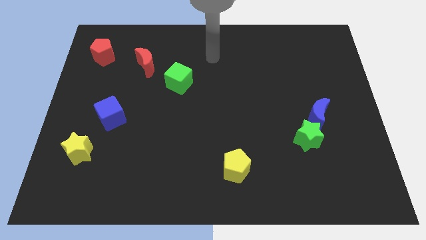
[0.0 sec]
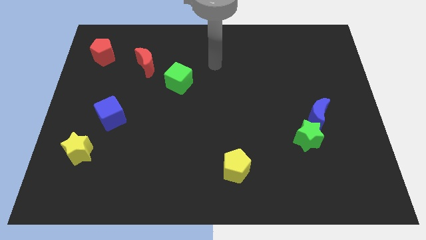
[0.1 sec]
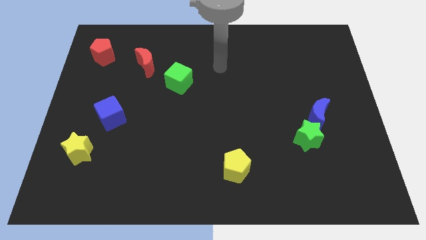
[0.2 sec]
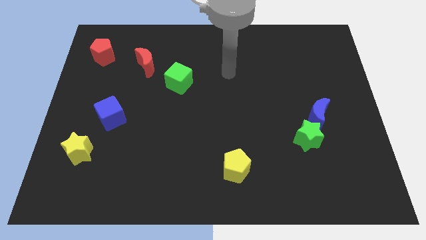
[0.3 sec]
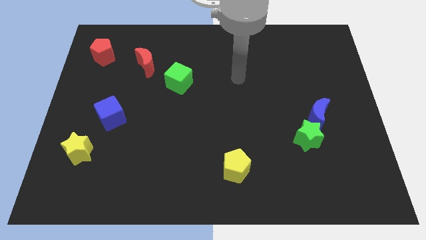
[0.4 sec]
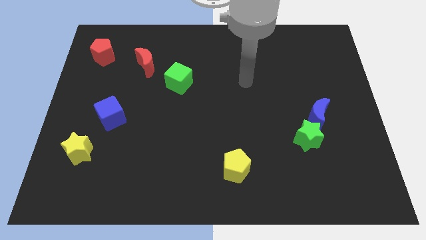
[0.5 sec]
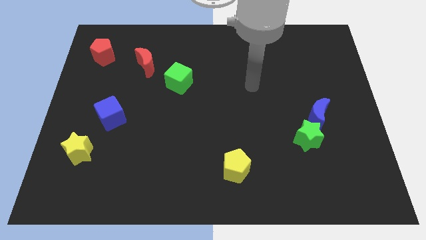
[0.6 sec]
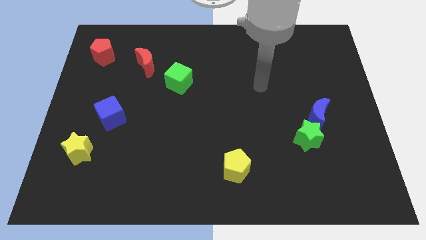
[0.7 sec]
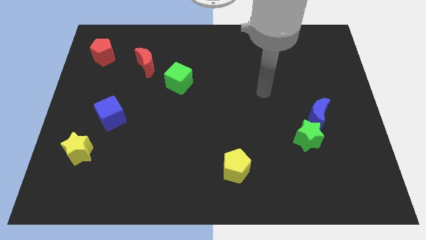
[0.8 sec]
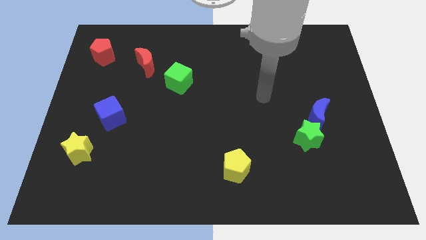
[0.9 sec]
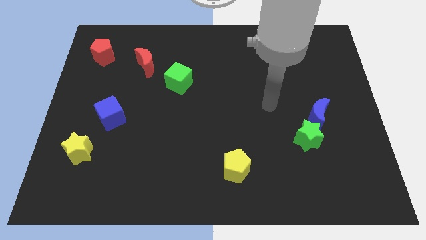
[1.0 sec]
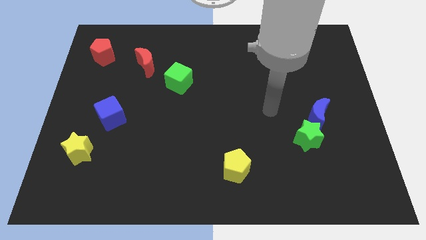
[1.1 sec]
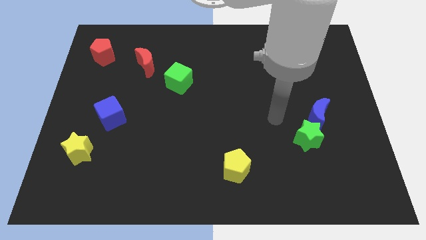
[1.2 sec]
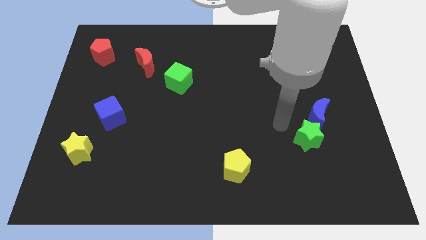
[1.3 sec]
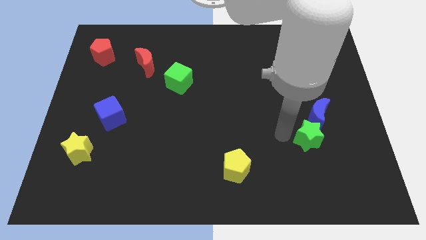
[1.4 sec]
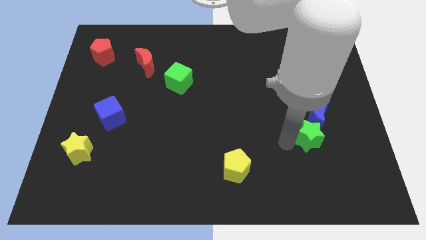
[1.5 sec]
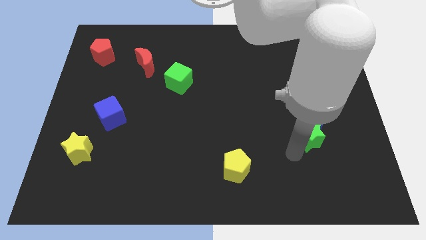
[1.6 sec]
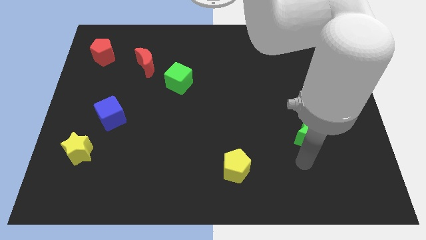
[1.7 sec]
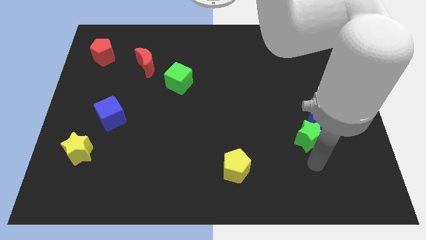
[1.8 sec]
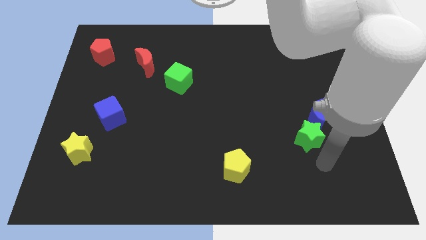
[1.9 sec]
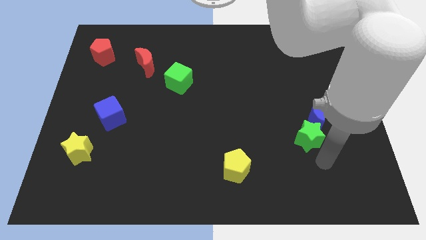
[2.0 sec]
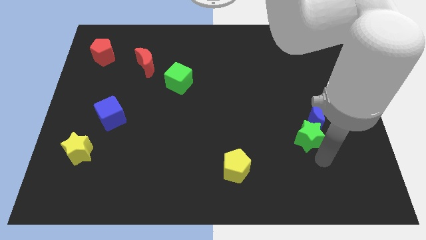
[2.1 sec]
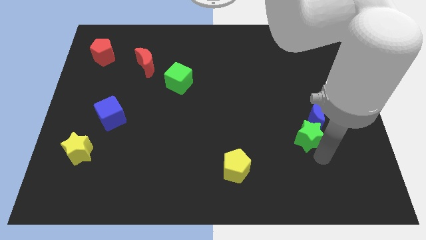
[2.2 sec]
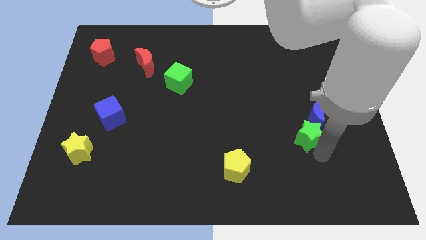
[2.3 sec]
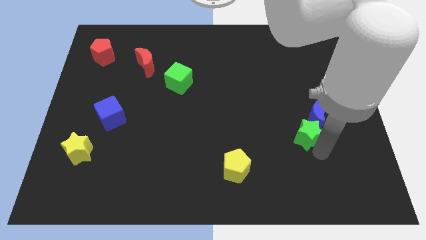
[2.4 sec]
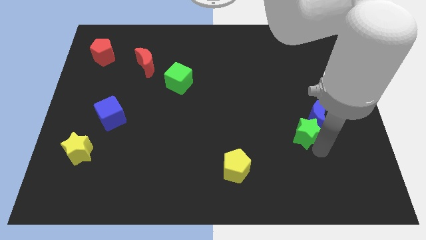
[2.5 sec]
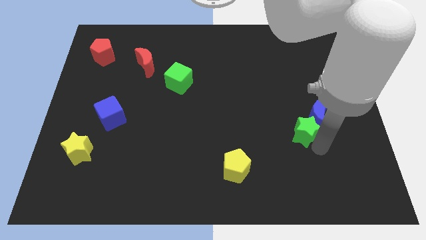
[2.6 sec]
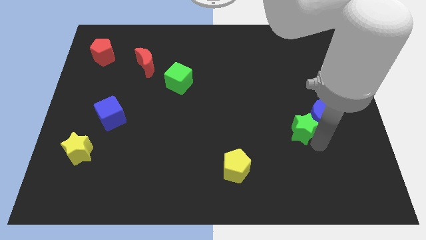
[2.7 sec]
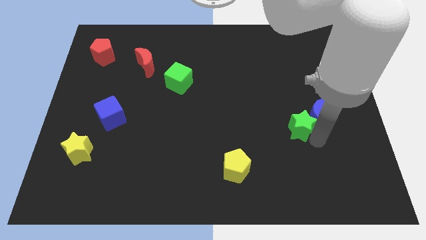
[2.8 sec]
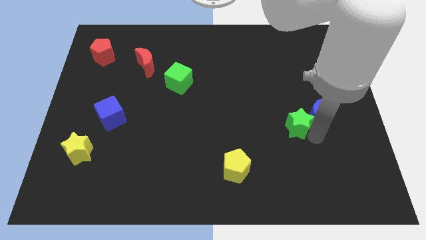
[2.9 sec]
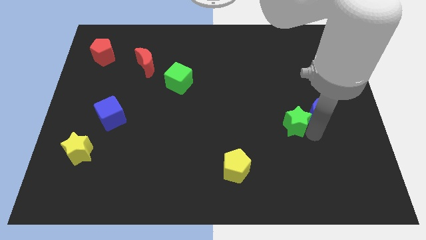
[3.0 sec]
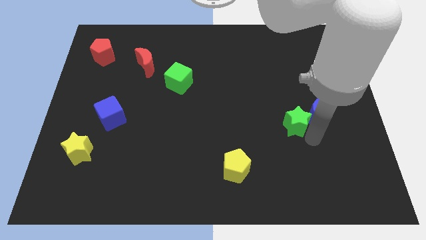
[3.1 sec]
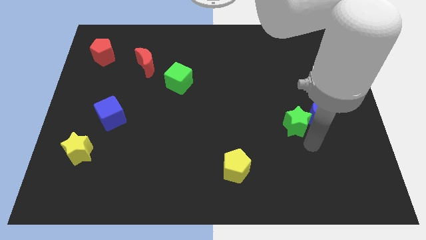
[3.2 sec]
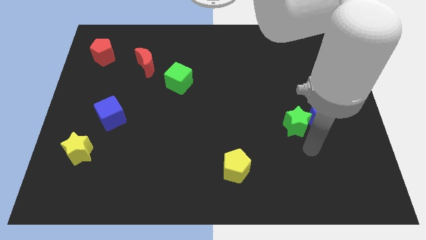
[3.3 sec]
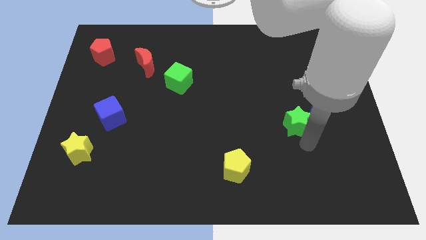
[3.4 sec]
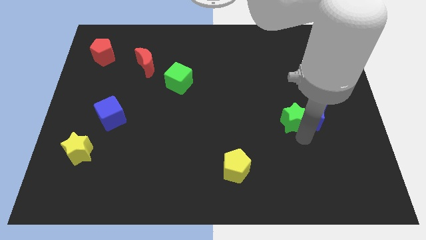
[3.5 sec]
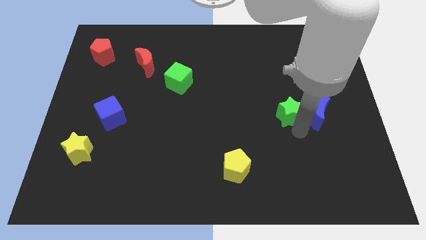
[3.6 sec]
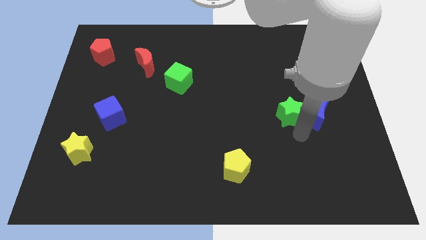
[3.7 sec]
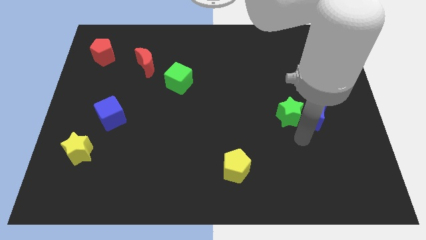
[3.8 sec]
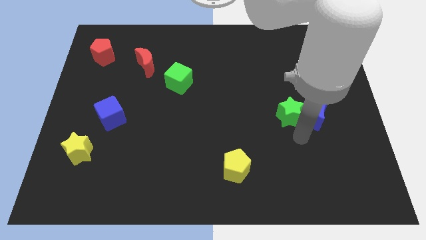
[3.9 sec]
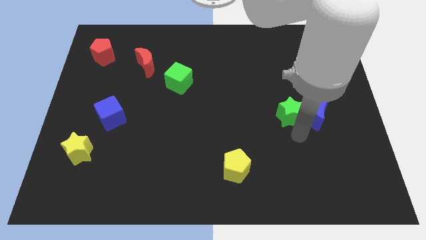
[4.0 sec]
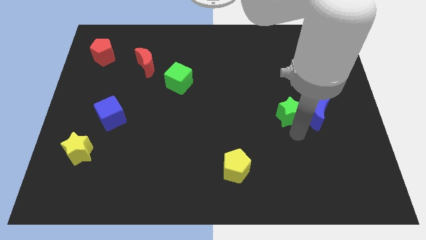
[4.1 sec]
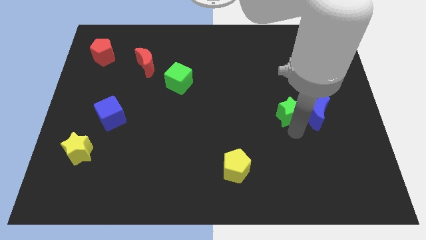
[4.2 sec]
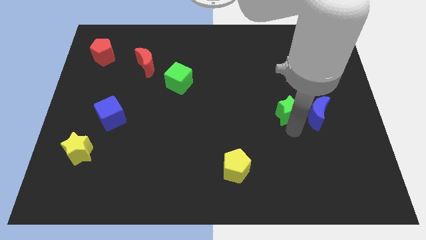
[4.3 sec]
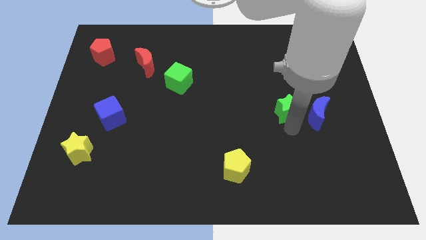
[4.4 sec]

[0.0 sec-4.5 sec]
push the green star a bit upwards

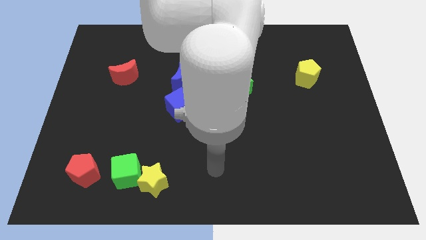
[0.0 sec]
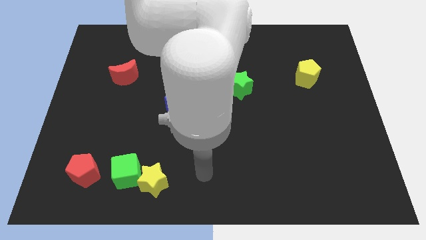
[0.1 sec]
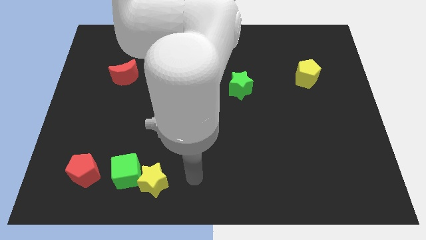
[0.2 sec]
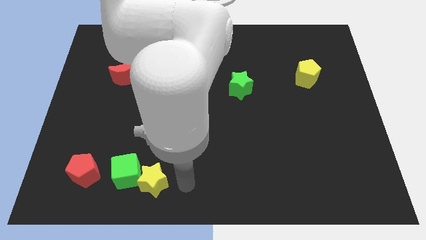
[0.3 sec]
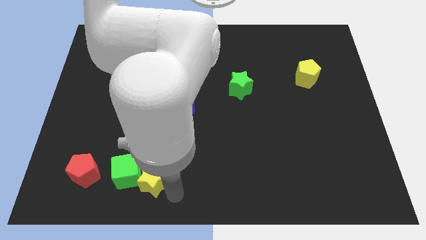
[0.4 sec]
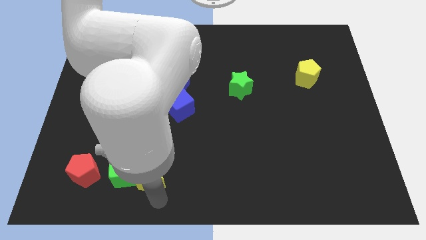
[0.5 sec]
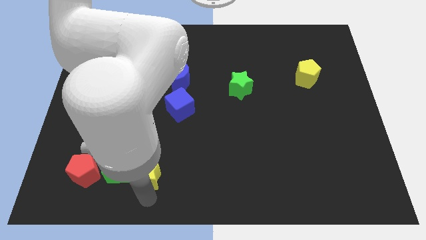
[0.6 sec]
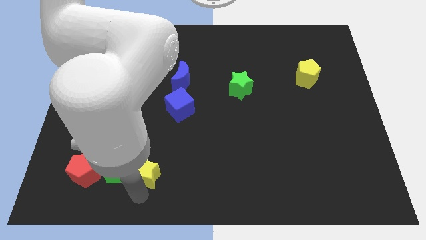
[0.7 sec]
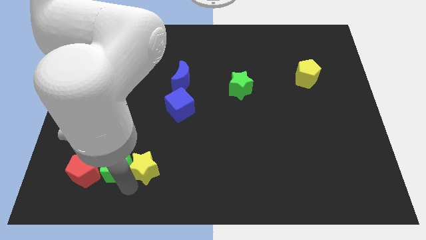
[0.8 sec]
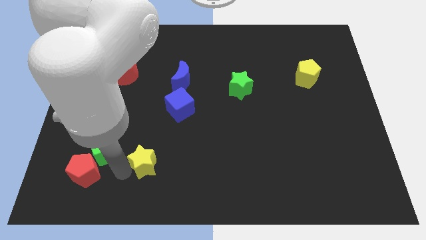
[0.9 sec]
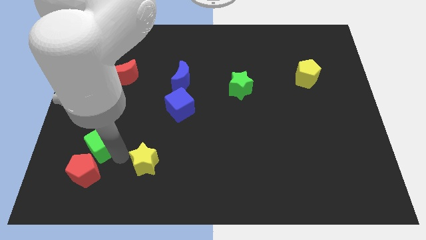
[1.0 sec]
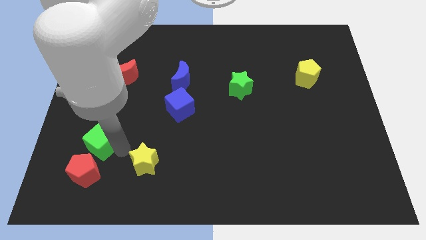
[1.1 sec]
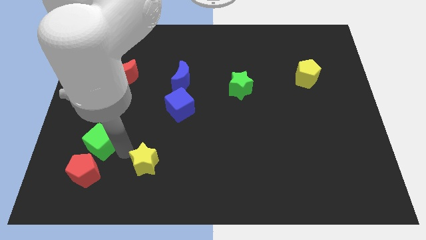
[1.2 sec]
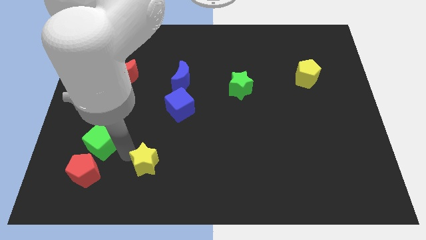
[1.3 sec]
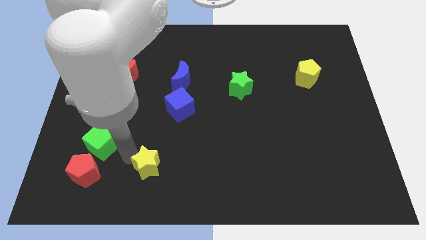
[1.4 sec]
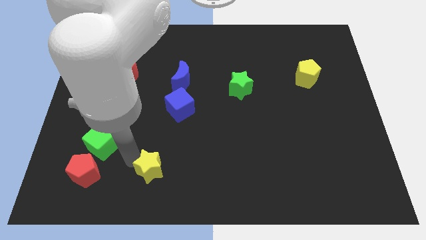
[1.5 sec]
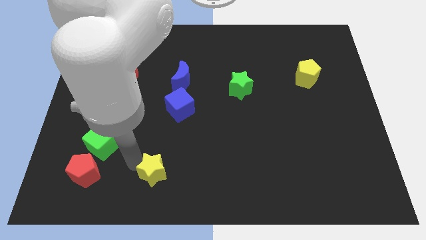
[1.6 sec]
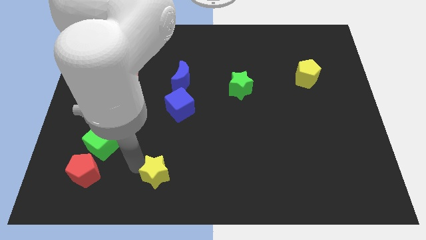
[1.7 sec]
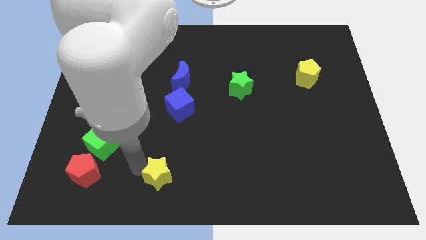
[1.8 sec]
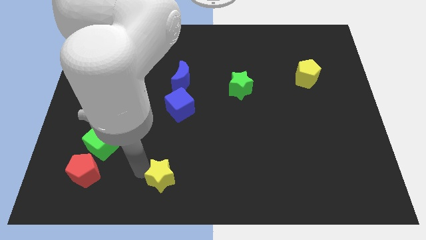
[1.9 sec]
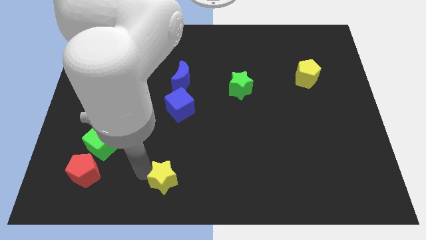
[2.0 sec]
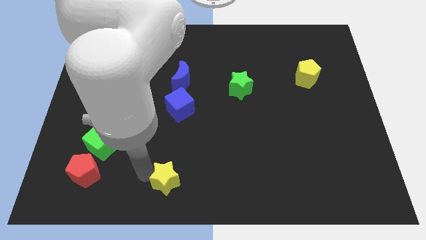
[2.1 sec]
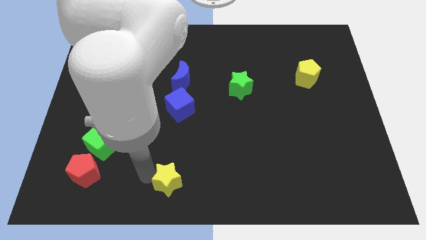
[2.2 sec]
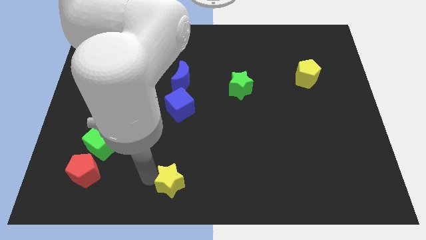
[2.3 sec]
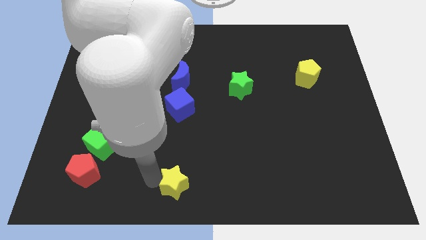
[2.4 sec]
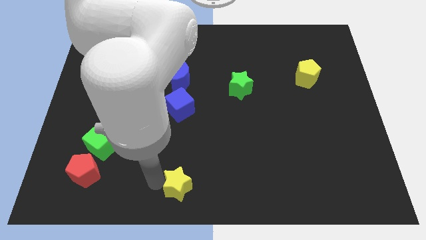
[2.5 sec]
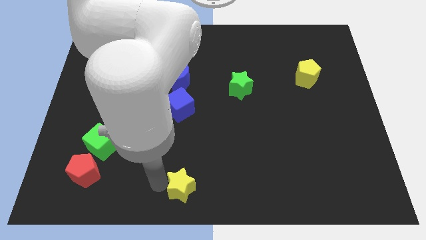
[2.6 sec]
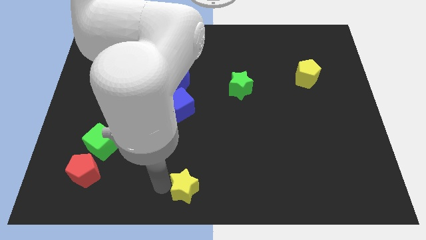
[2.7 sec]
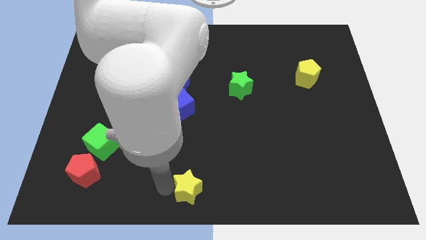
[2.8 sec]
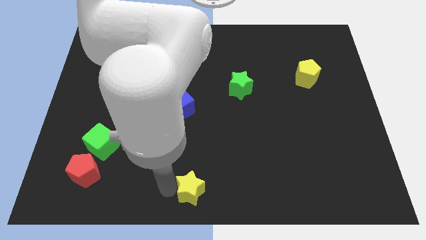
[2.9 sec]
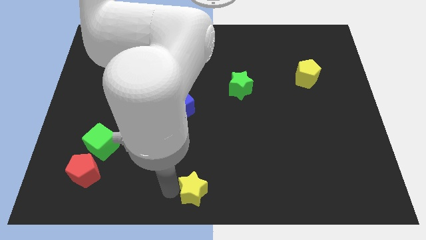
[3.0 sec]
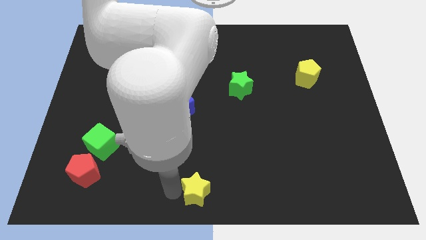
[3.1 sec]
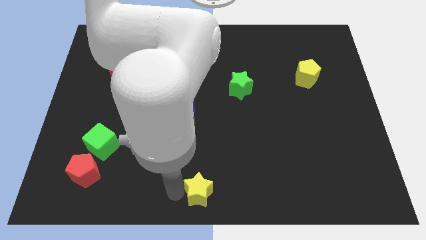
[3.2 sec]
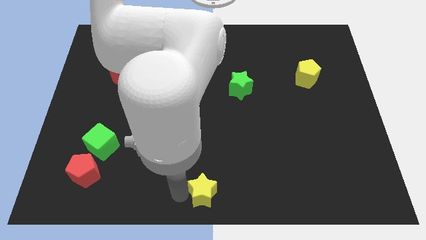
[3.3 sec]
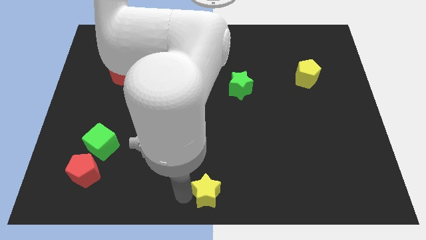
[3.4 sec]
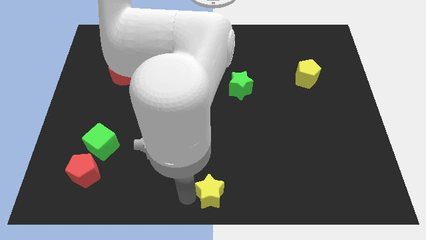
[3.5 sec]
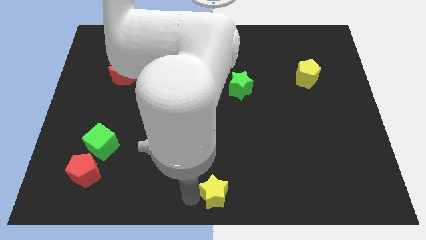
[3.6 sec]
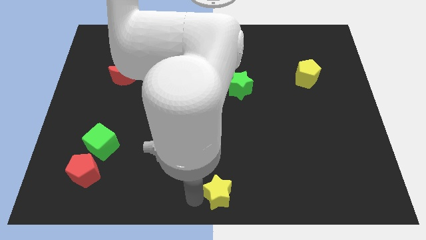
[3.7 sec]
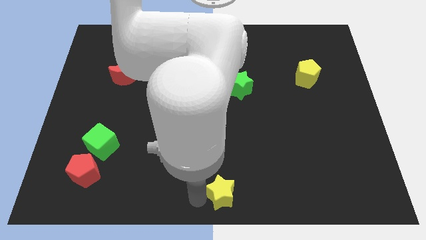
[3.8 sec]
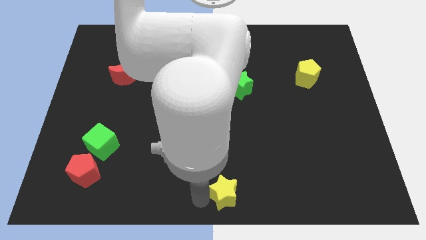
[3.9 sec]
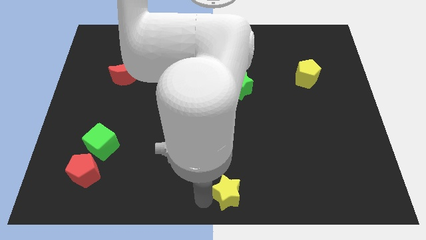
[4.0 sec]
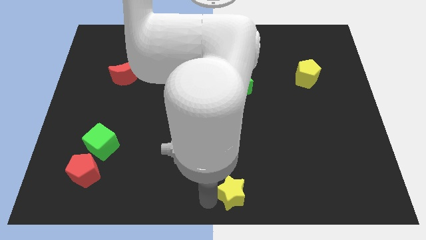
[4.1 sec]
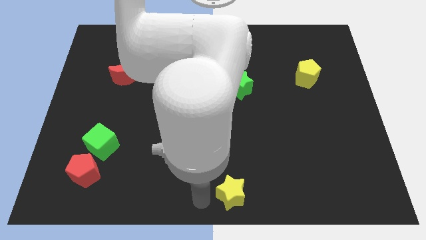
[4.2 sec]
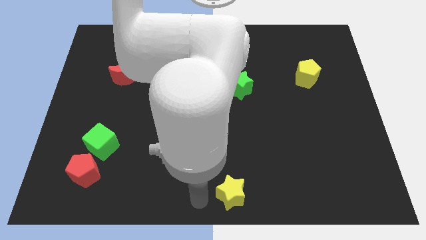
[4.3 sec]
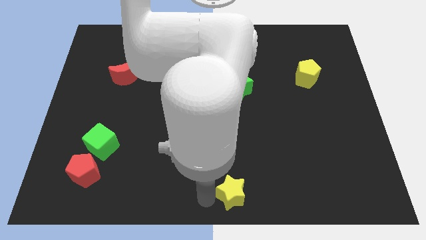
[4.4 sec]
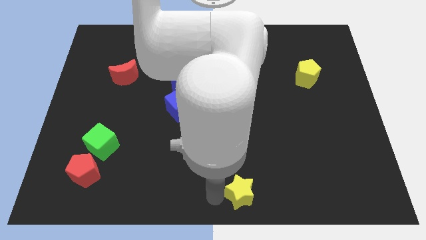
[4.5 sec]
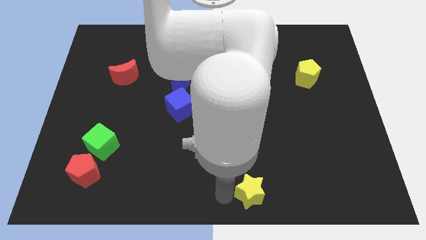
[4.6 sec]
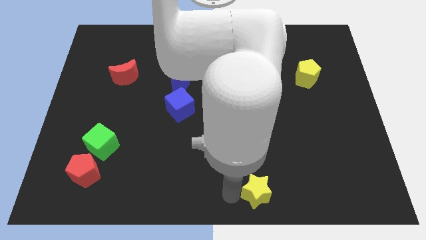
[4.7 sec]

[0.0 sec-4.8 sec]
slide the yellow star to the right
